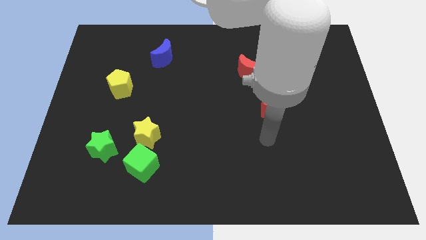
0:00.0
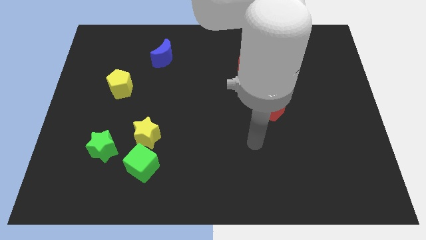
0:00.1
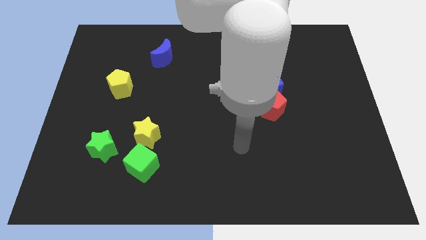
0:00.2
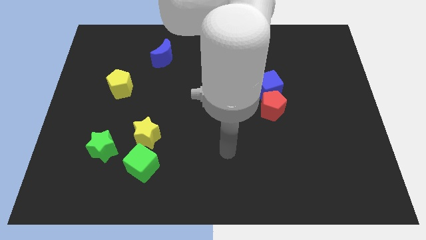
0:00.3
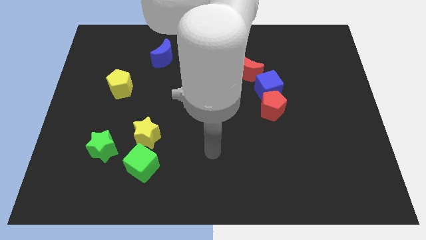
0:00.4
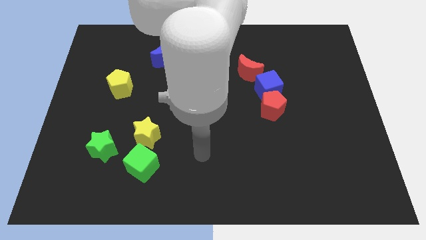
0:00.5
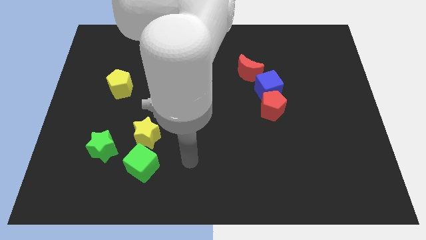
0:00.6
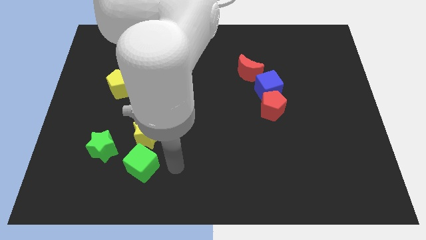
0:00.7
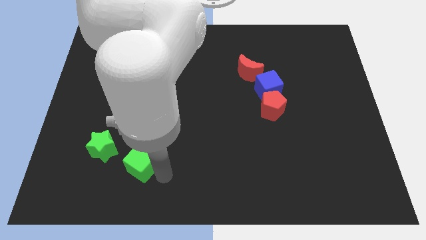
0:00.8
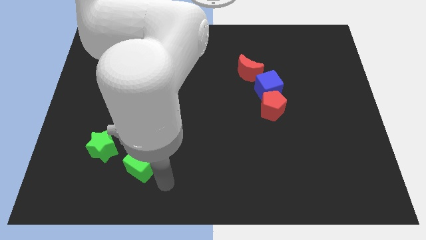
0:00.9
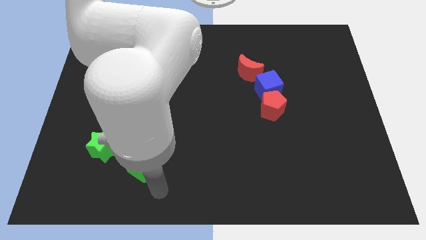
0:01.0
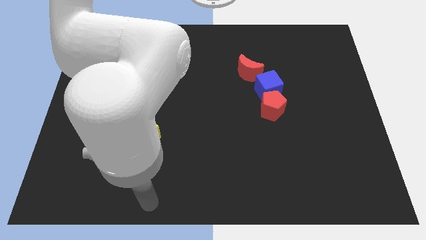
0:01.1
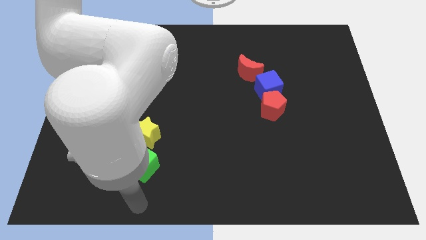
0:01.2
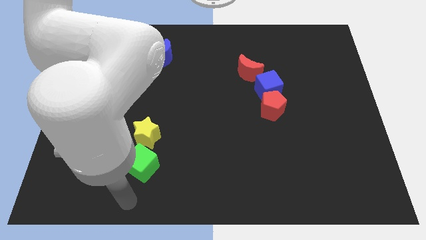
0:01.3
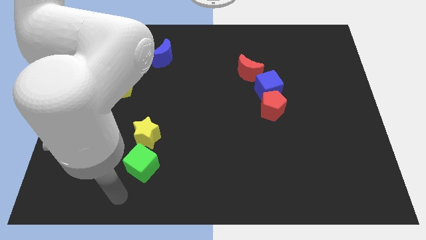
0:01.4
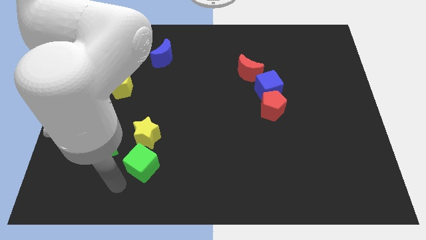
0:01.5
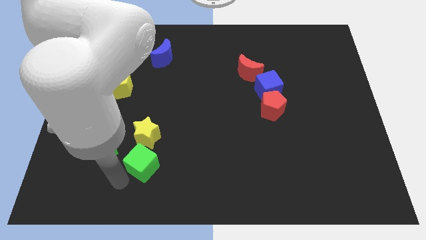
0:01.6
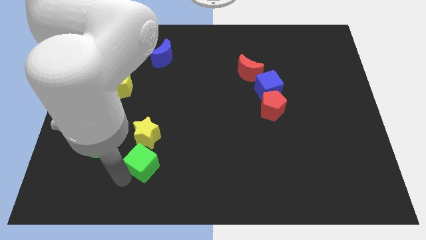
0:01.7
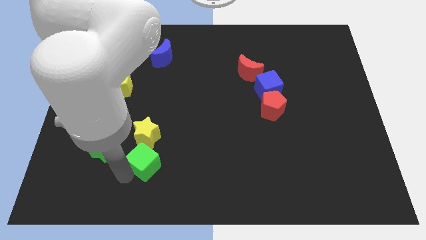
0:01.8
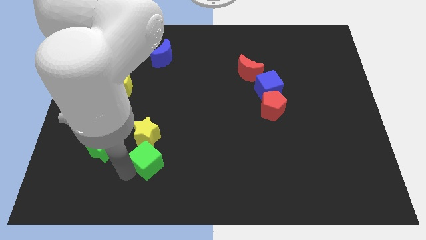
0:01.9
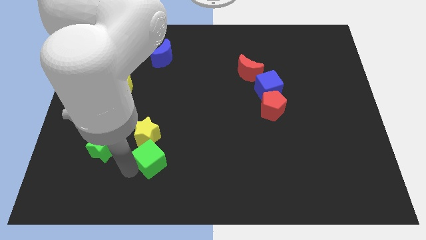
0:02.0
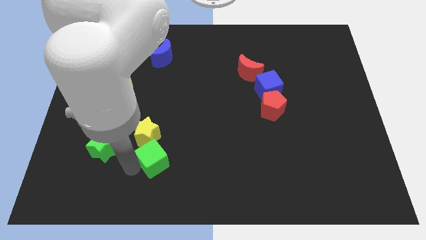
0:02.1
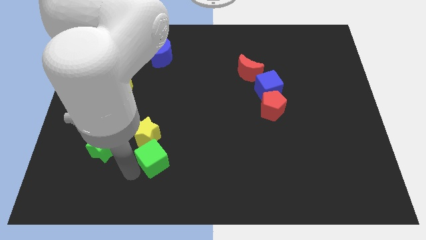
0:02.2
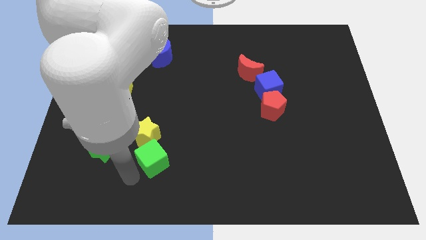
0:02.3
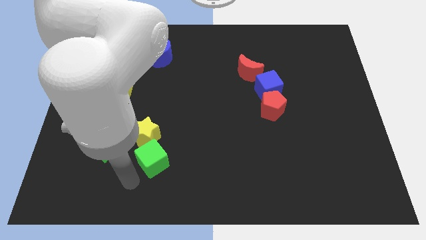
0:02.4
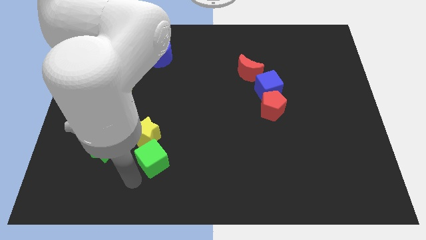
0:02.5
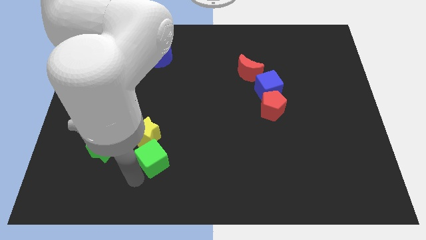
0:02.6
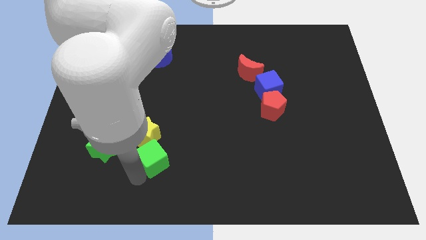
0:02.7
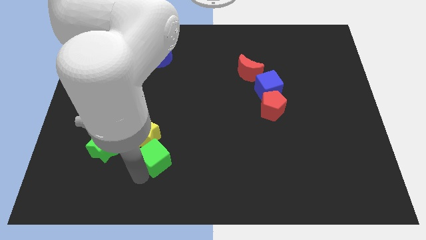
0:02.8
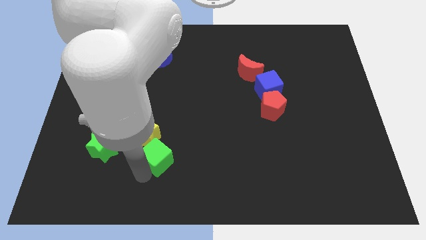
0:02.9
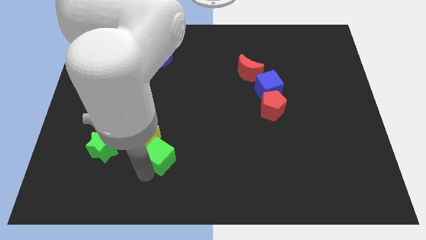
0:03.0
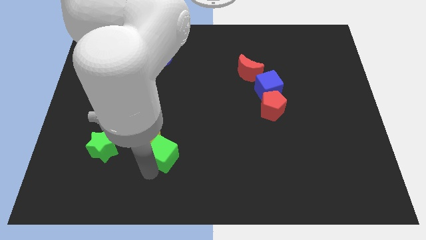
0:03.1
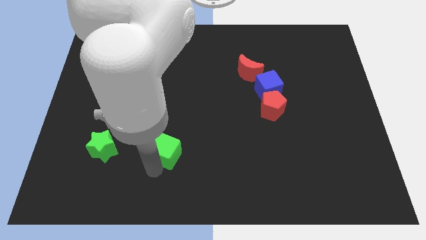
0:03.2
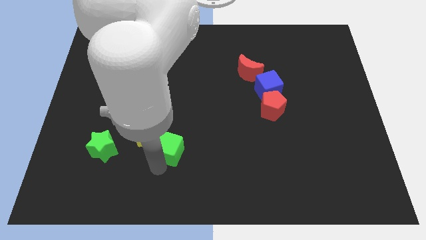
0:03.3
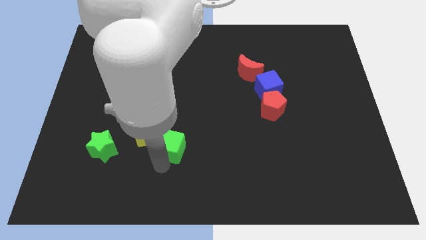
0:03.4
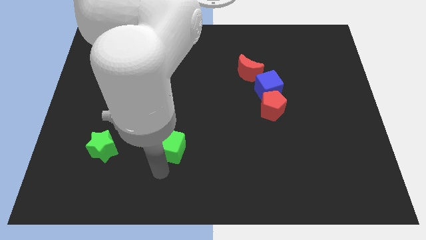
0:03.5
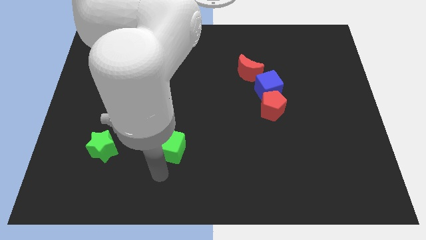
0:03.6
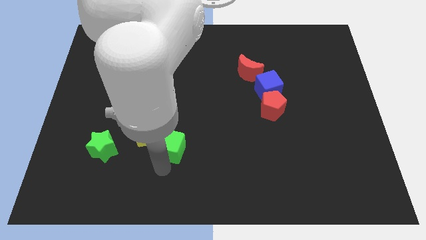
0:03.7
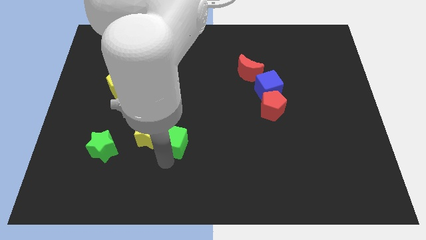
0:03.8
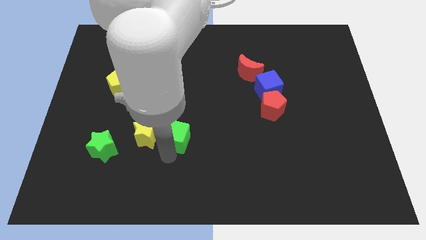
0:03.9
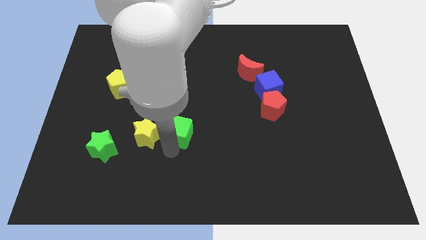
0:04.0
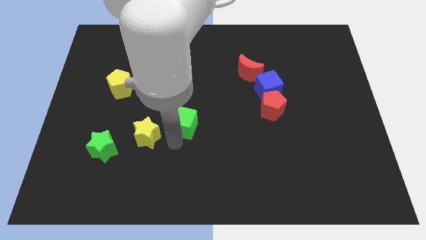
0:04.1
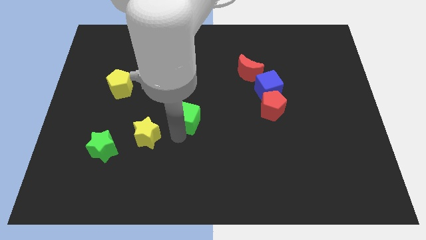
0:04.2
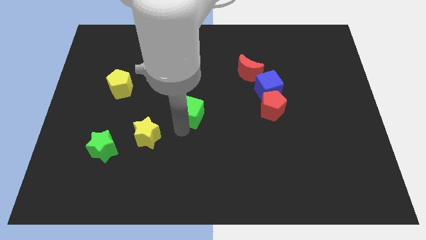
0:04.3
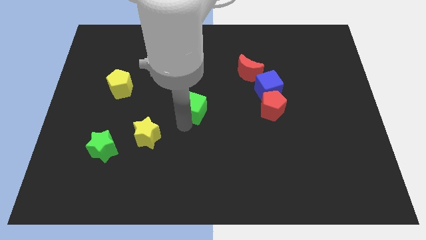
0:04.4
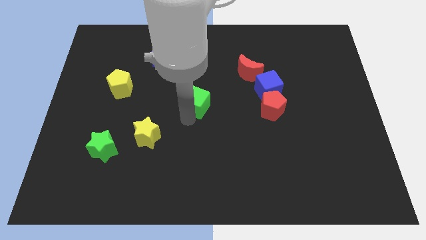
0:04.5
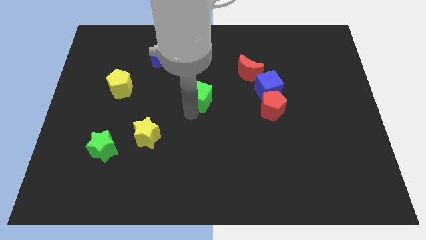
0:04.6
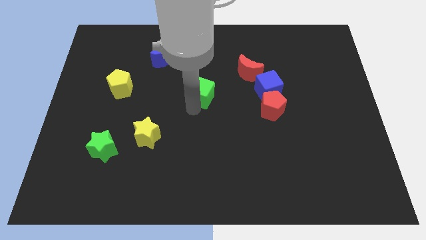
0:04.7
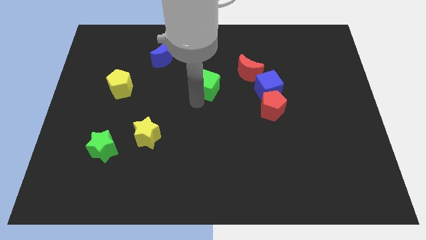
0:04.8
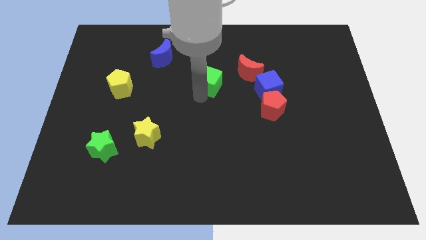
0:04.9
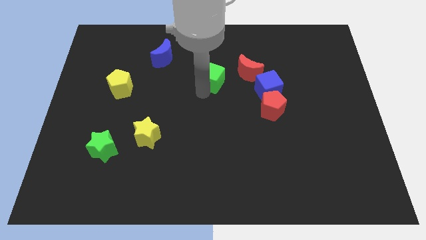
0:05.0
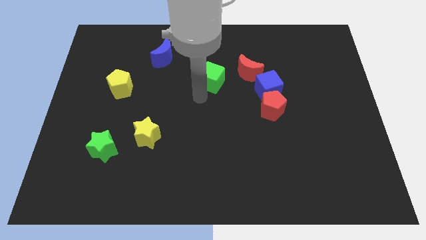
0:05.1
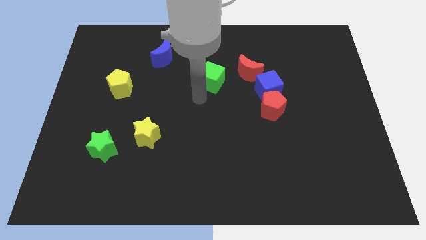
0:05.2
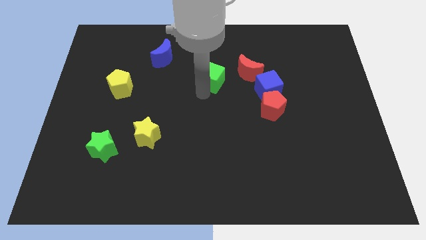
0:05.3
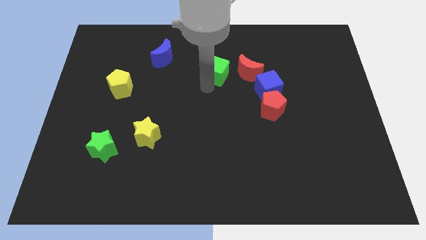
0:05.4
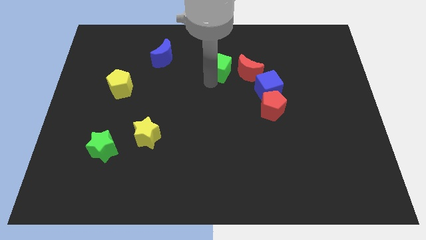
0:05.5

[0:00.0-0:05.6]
move the green cube to the top left side of the red moon

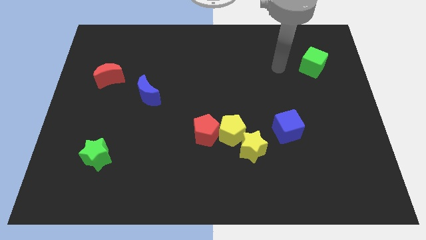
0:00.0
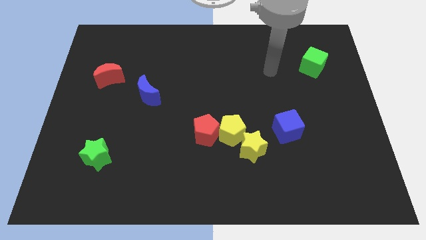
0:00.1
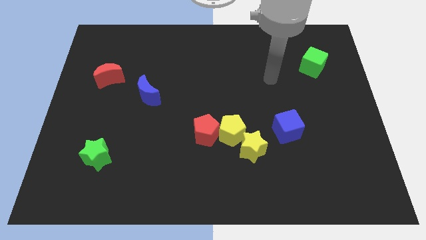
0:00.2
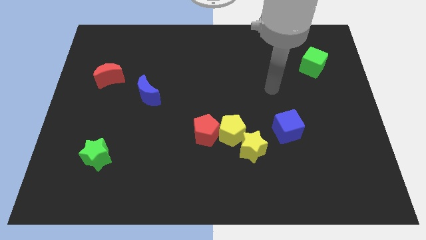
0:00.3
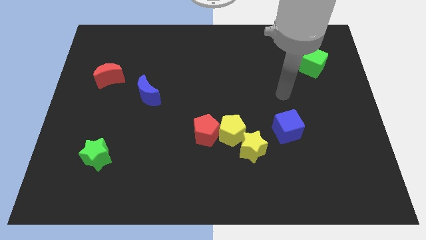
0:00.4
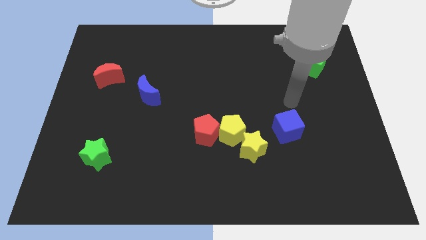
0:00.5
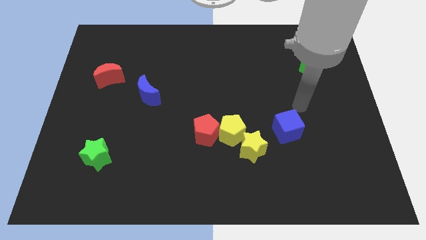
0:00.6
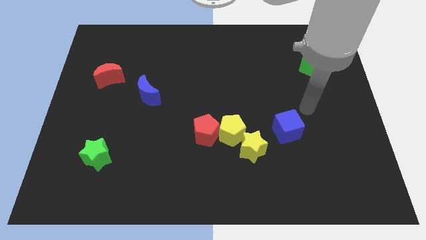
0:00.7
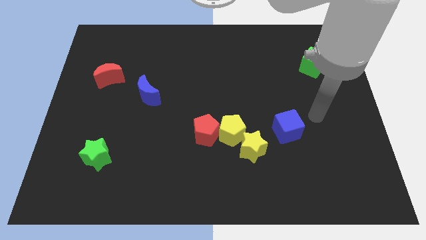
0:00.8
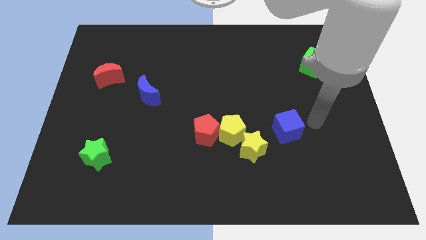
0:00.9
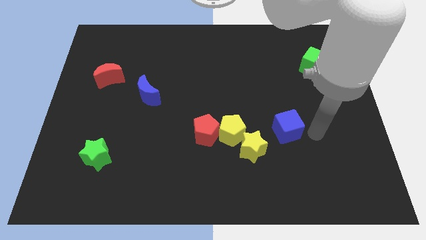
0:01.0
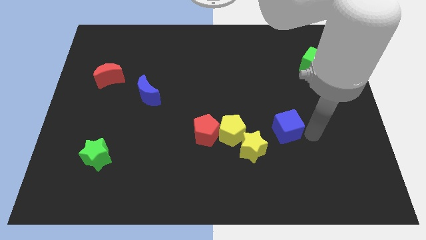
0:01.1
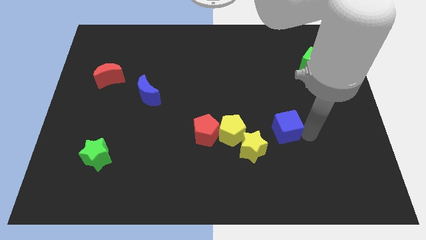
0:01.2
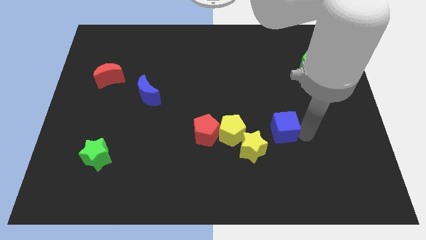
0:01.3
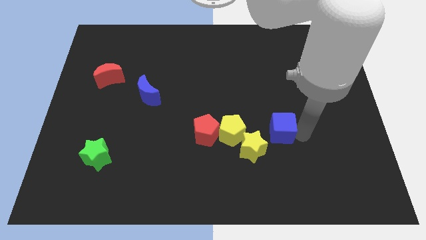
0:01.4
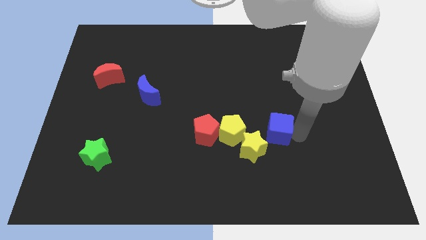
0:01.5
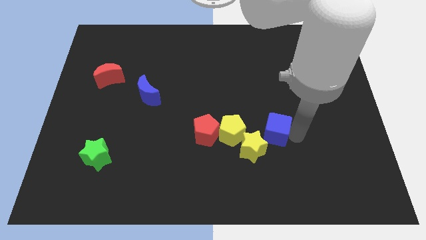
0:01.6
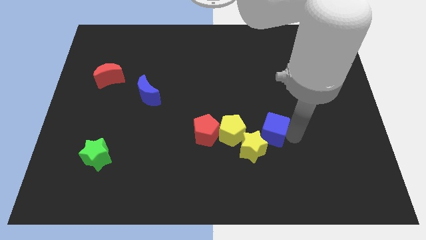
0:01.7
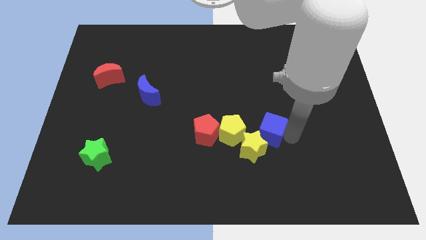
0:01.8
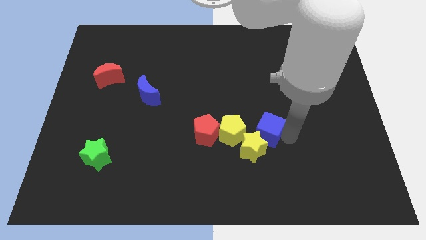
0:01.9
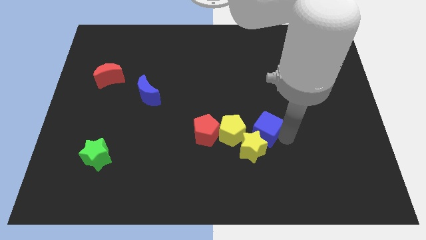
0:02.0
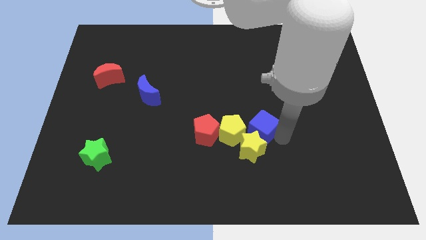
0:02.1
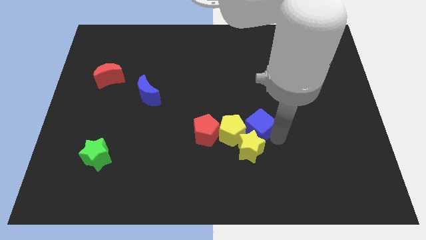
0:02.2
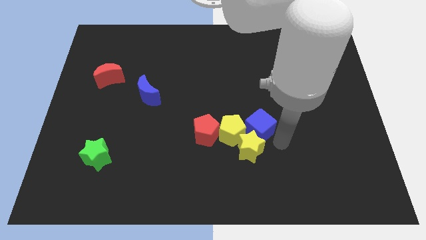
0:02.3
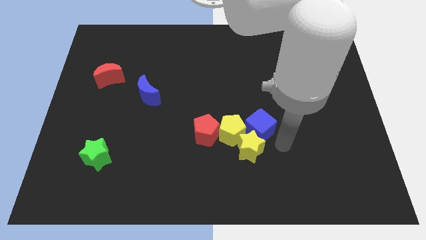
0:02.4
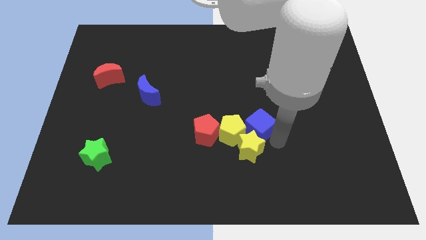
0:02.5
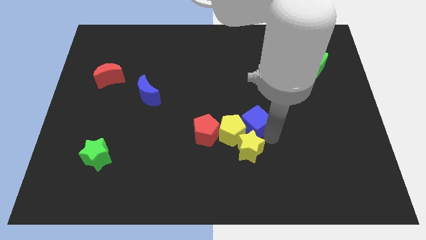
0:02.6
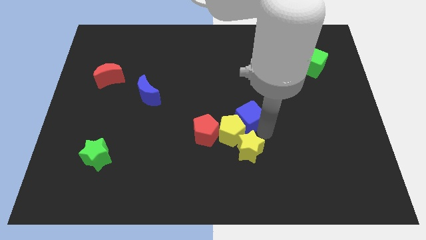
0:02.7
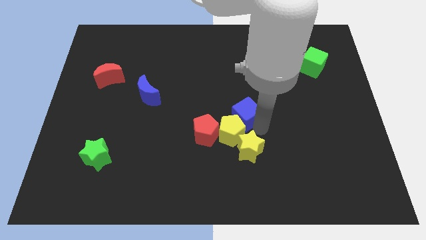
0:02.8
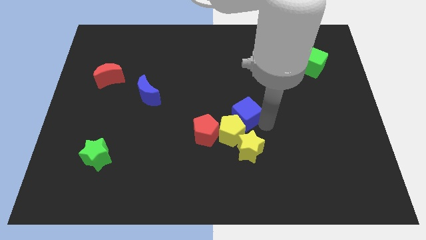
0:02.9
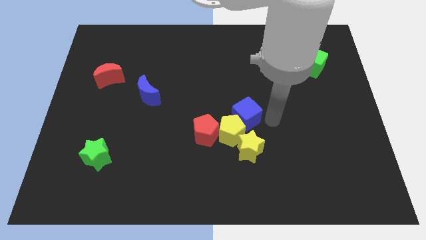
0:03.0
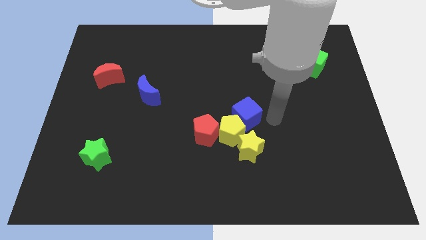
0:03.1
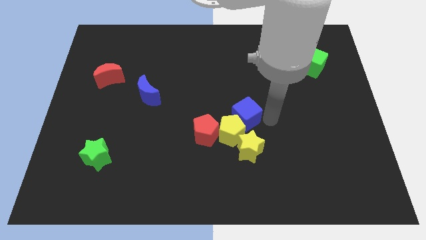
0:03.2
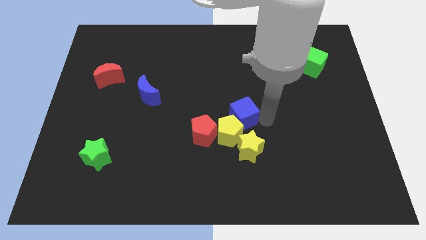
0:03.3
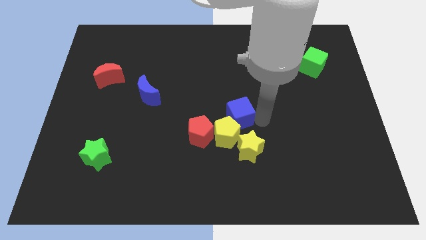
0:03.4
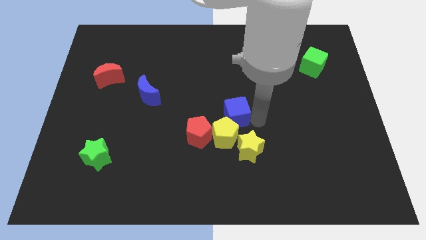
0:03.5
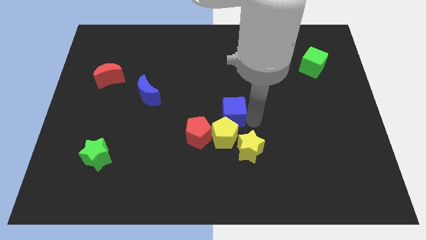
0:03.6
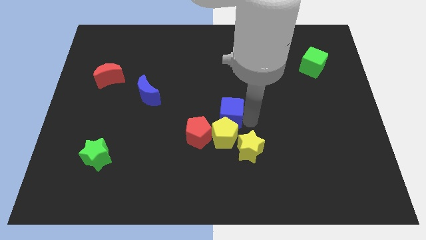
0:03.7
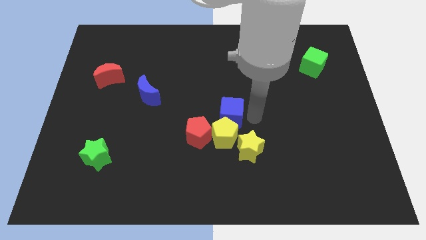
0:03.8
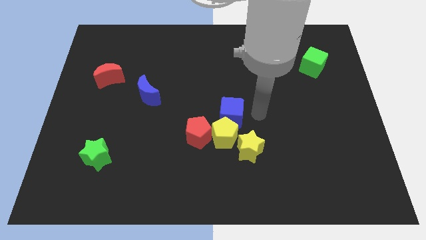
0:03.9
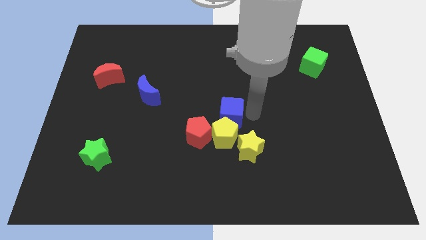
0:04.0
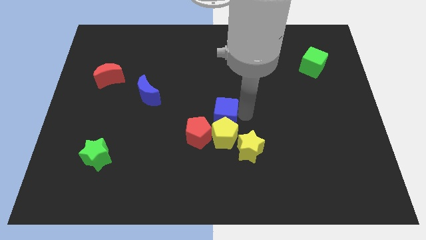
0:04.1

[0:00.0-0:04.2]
move the blue cube to the top left side of the yellow pentagon
